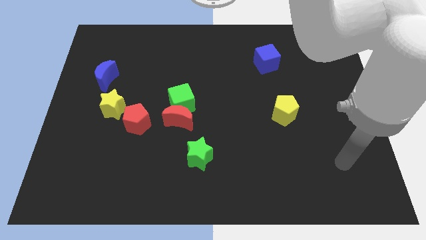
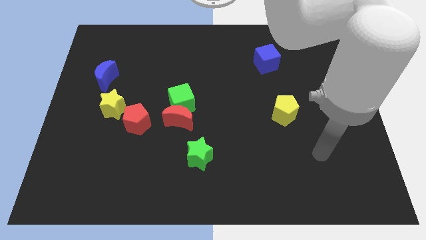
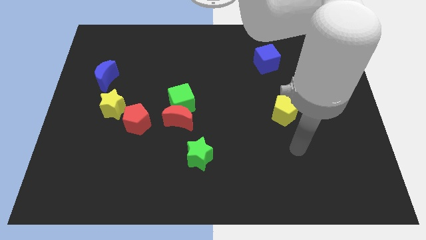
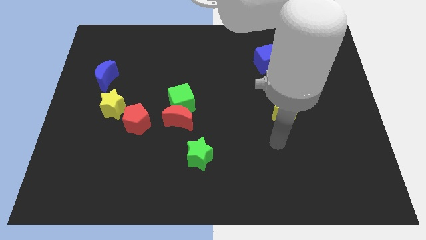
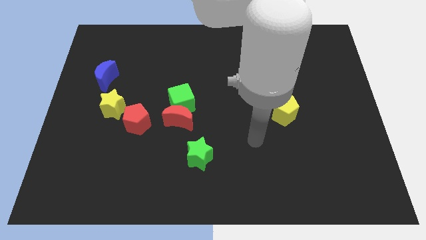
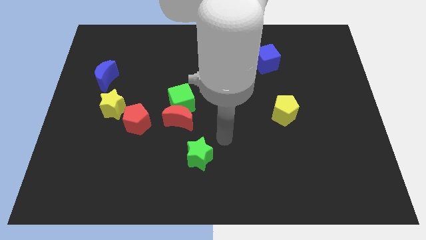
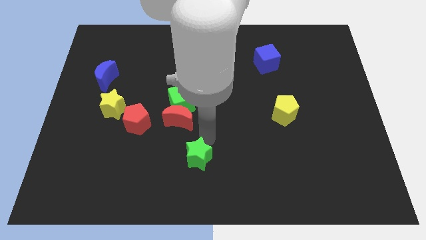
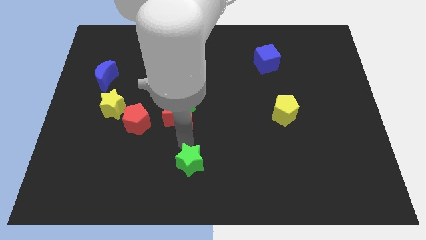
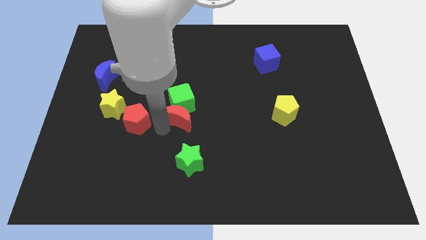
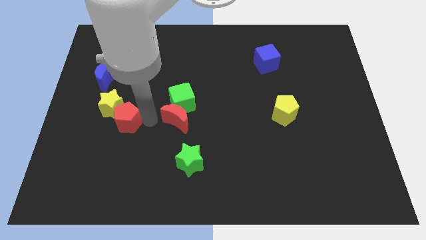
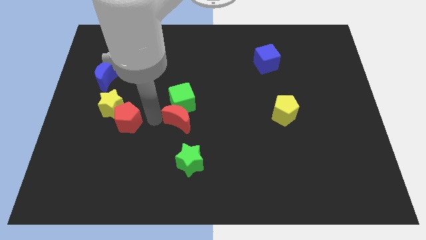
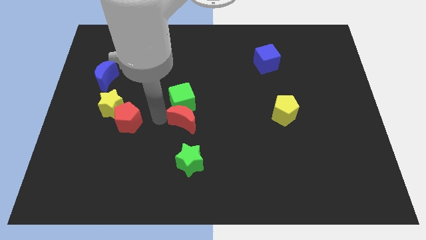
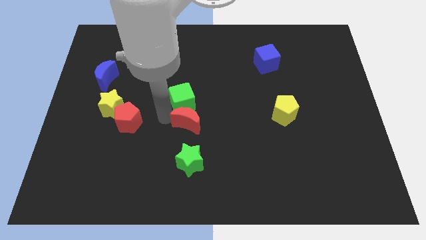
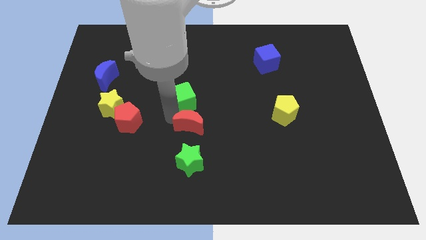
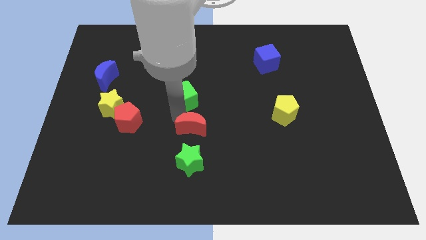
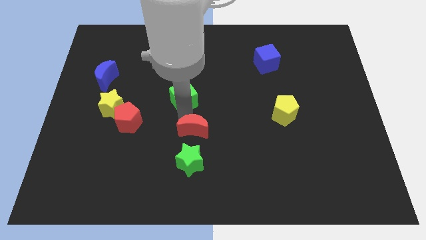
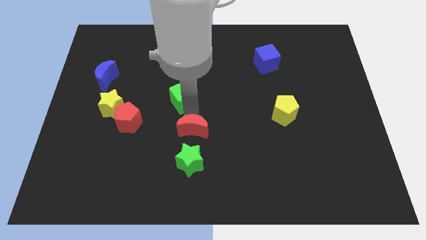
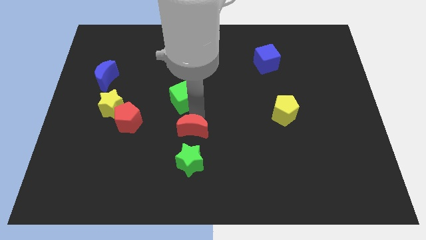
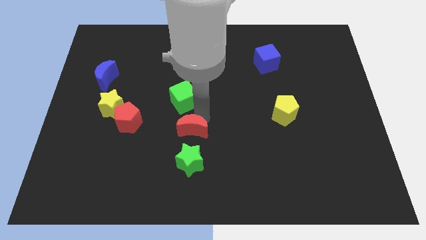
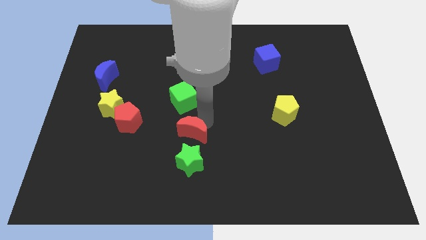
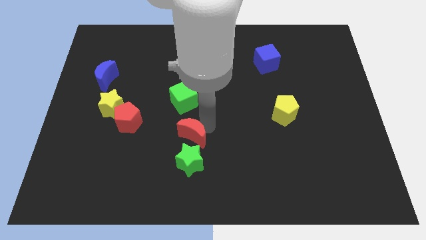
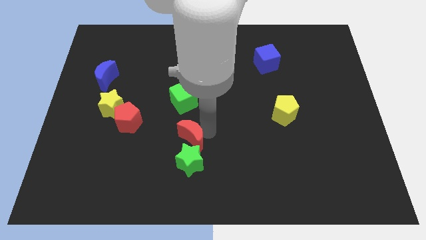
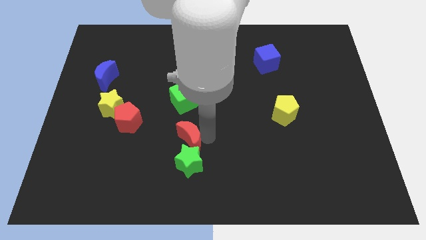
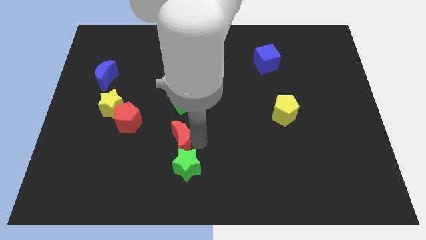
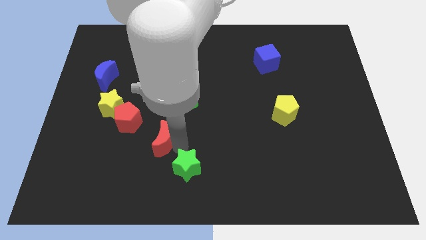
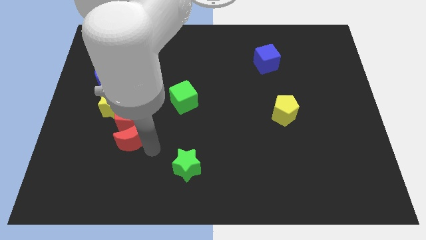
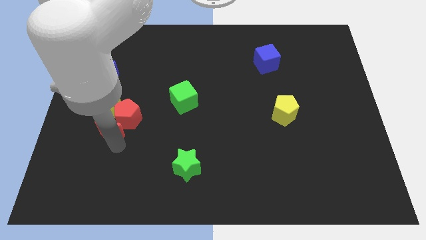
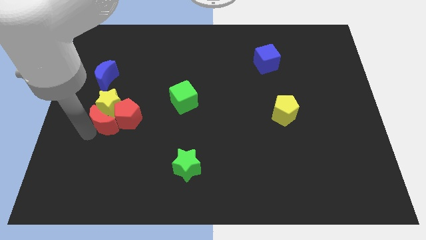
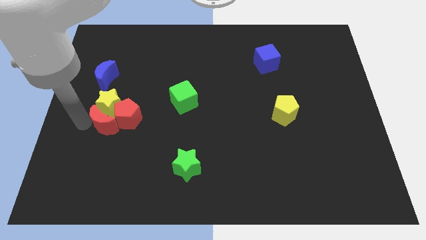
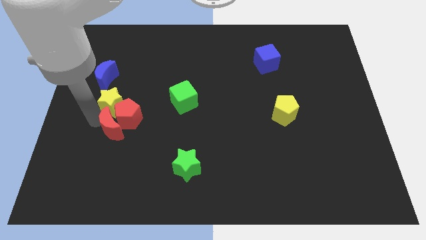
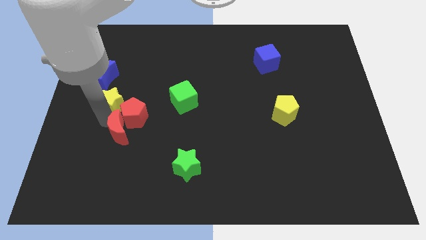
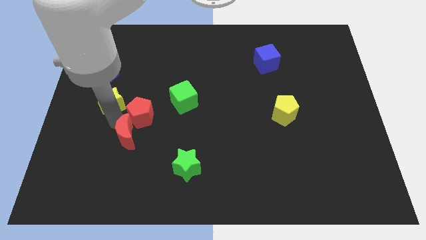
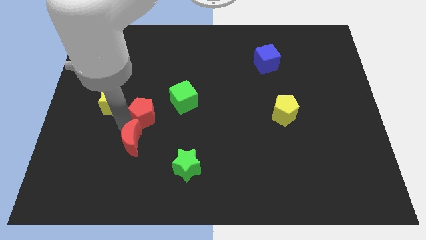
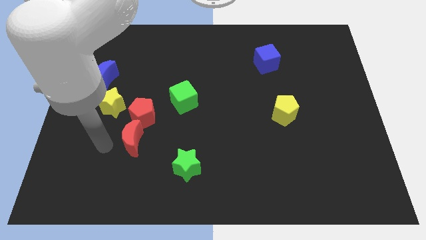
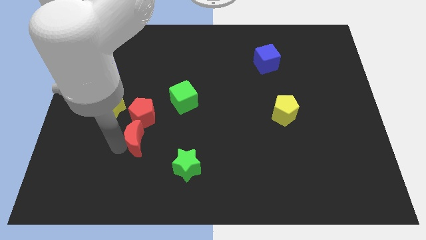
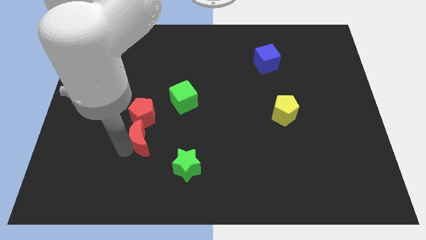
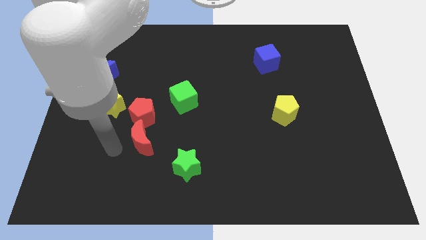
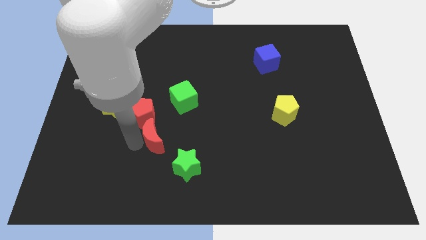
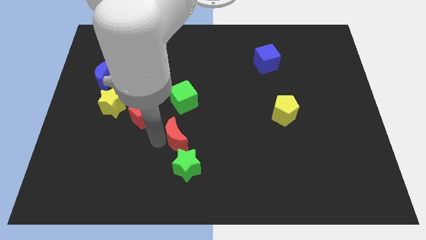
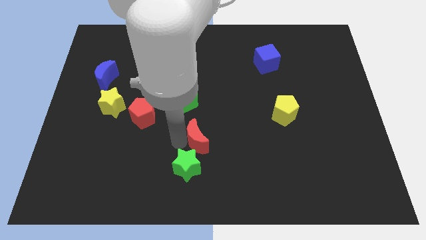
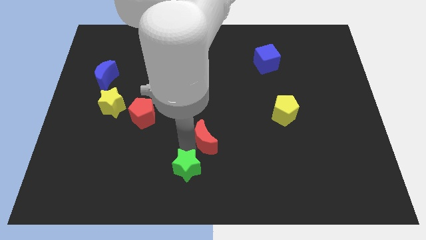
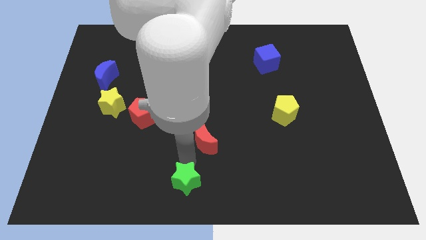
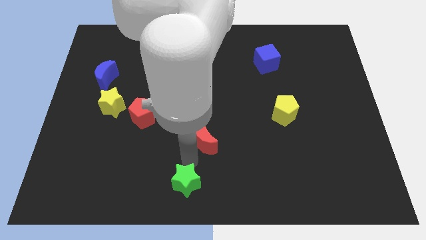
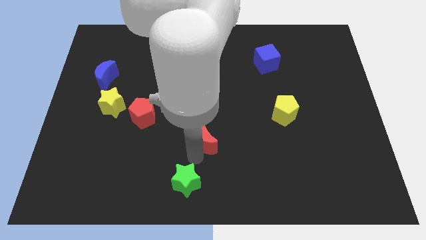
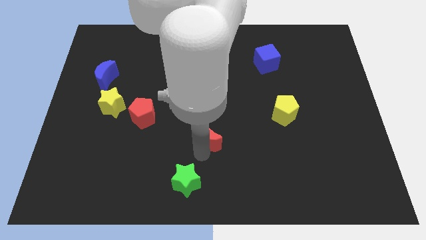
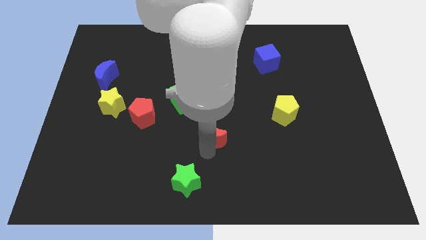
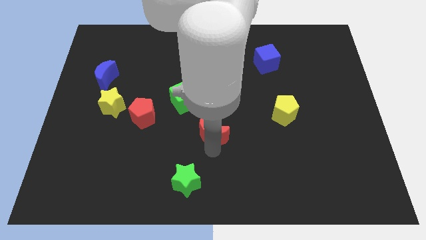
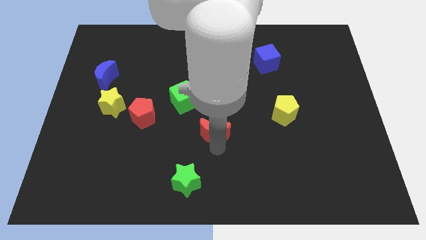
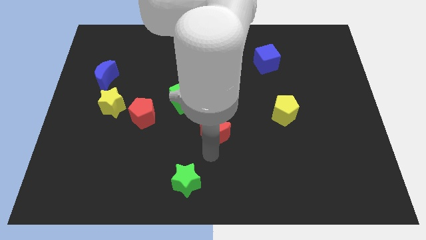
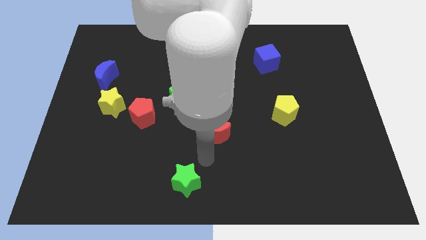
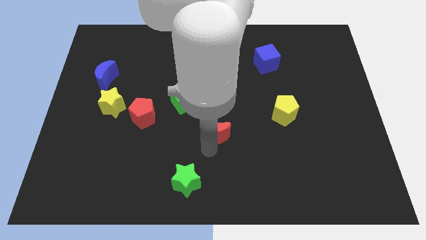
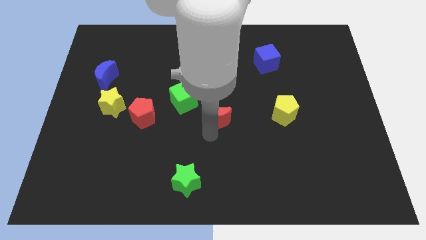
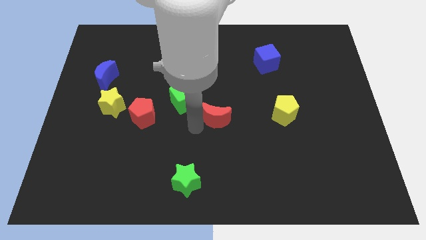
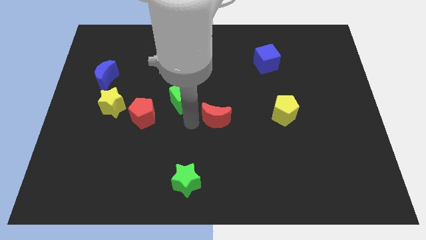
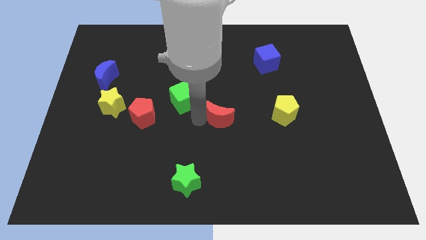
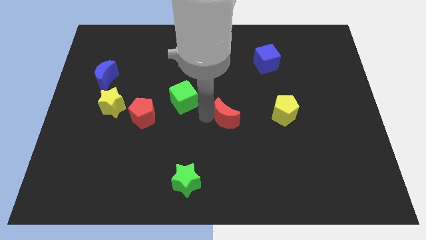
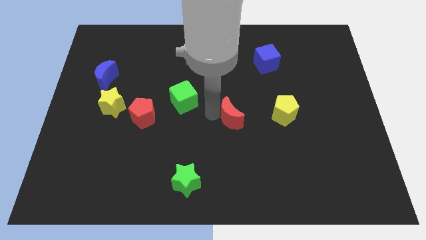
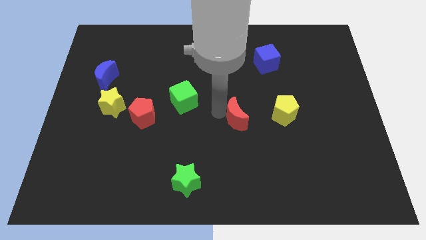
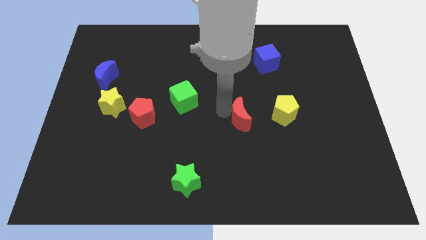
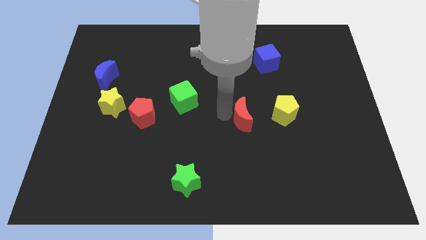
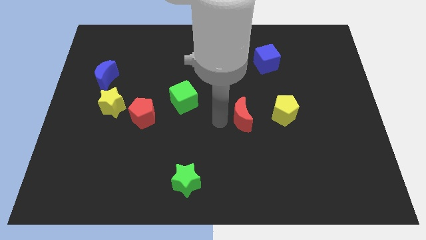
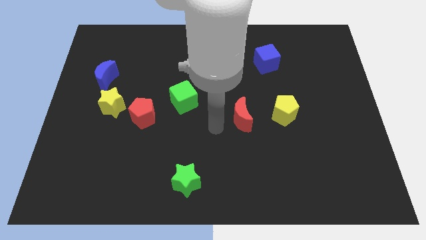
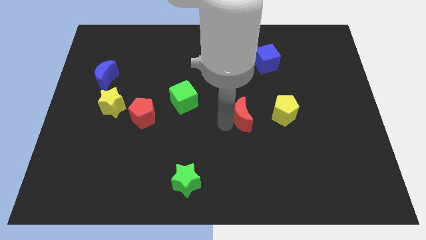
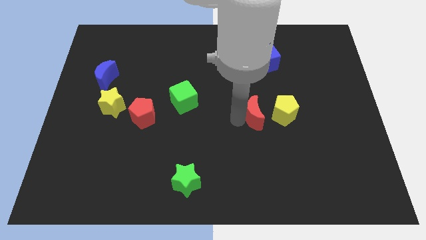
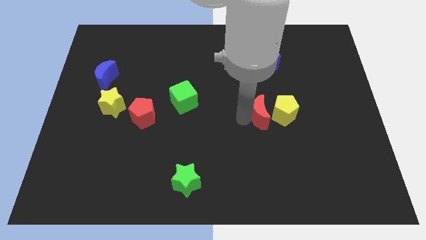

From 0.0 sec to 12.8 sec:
slide the red moon towards the yellow pentagon

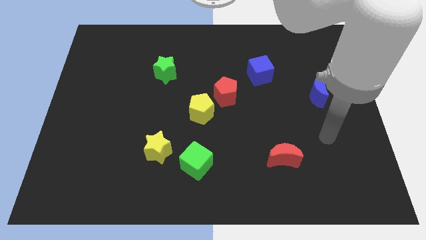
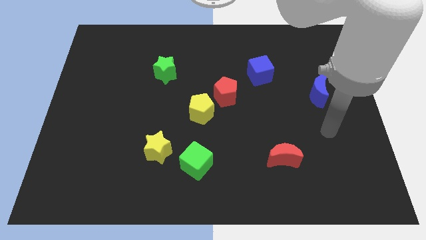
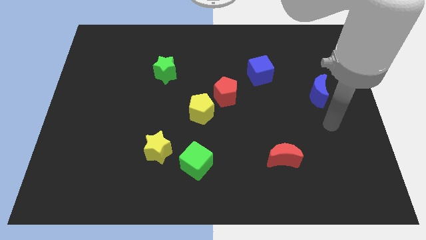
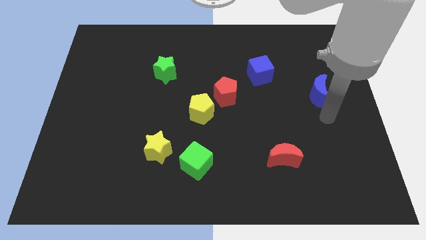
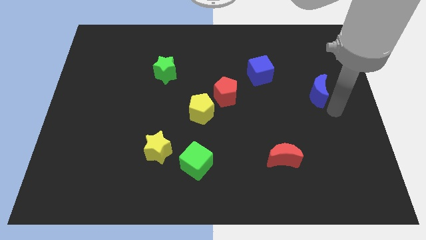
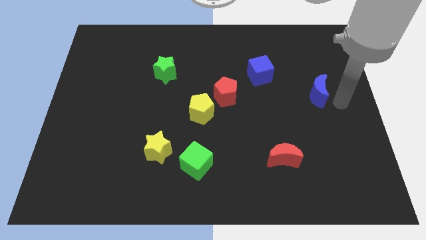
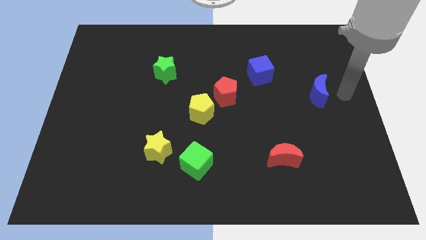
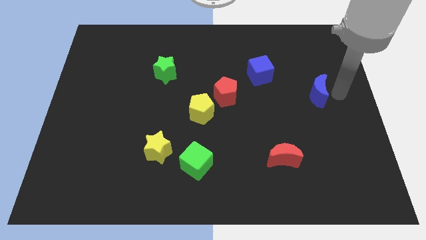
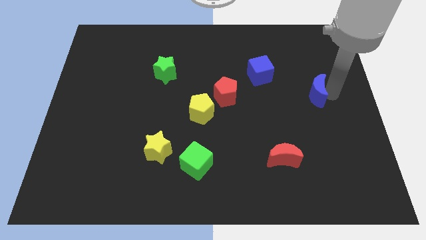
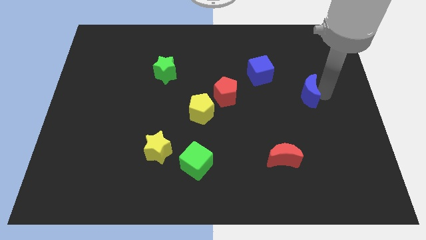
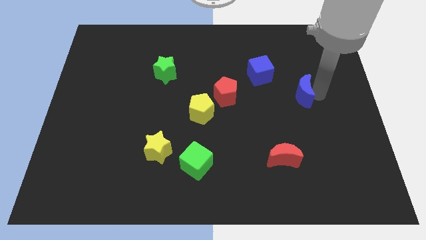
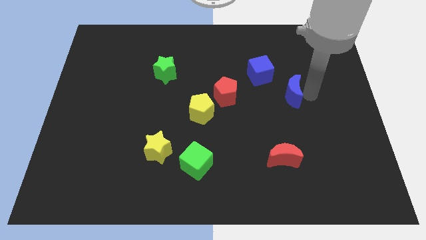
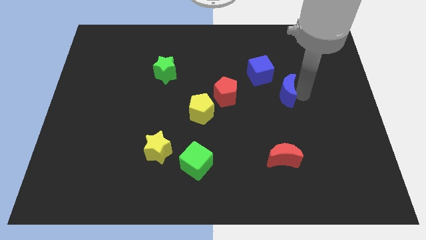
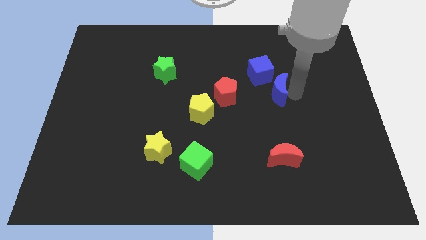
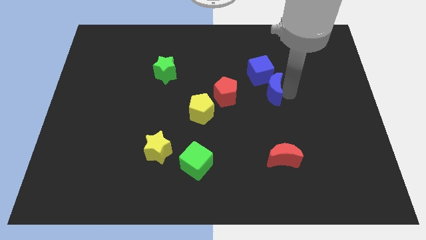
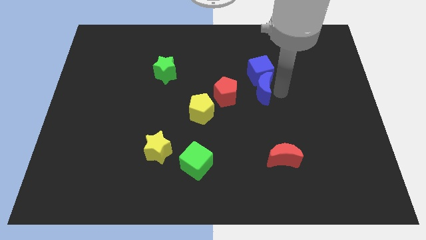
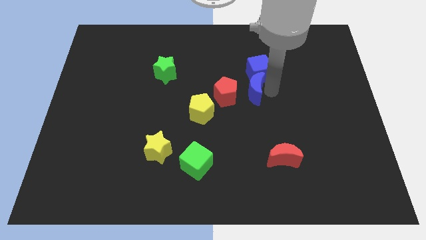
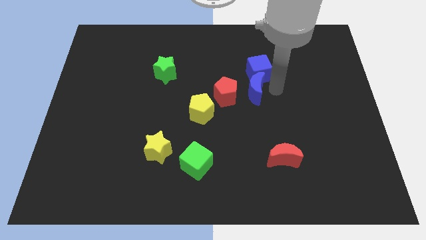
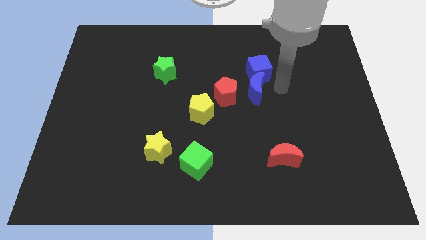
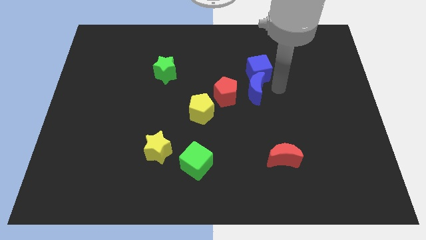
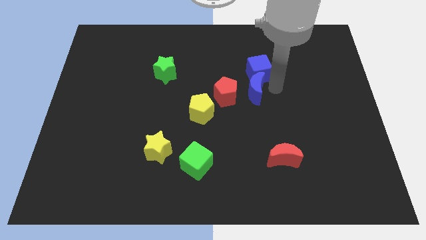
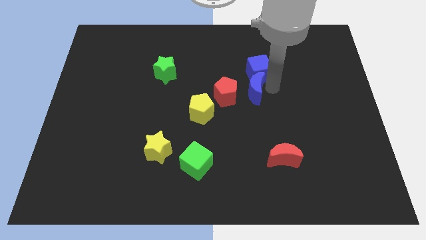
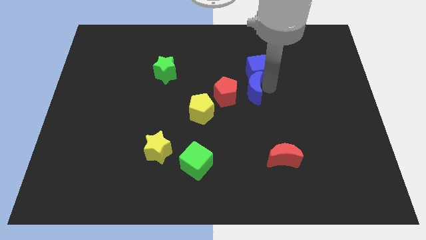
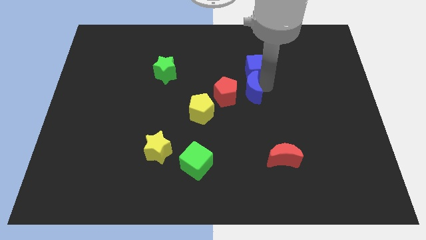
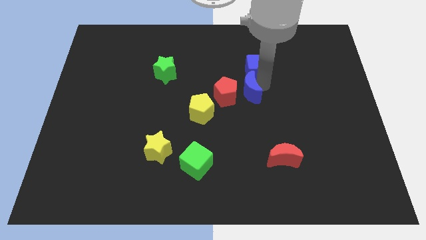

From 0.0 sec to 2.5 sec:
put the blue moon towards the red pentagon
